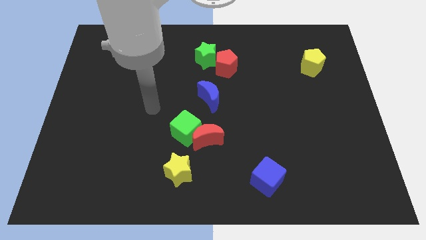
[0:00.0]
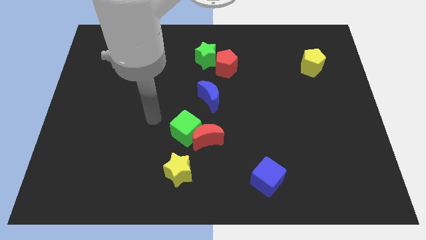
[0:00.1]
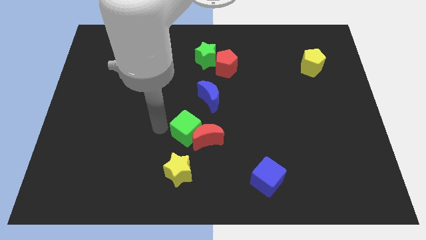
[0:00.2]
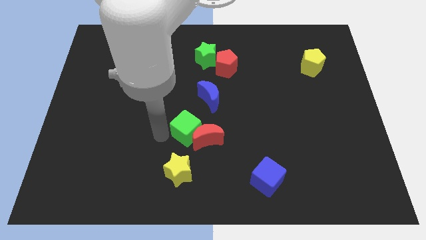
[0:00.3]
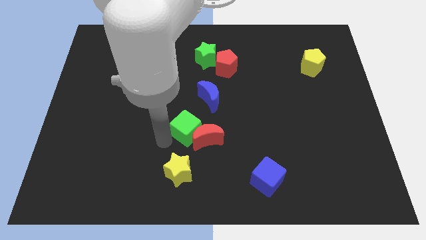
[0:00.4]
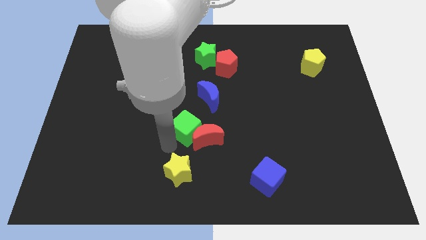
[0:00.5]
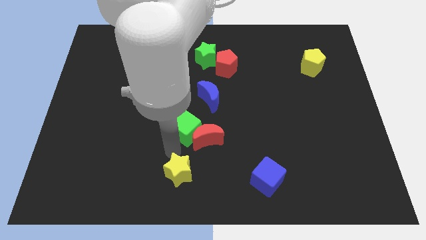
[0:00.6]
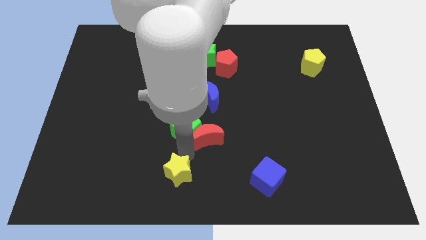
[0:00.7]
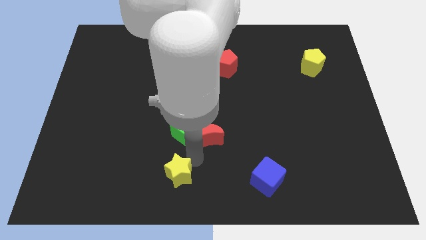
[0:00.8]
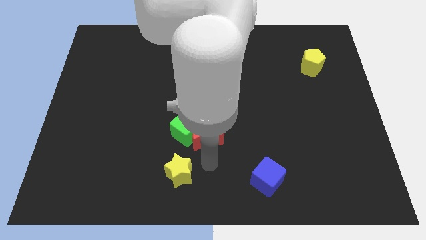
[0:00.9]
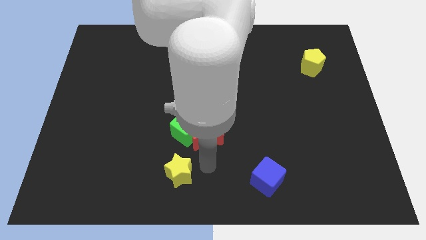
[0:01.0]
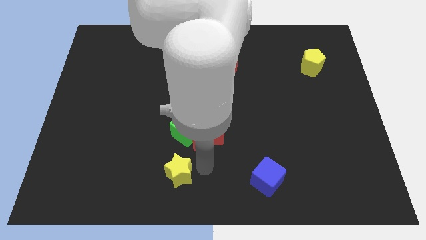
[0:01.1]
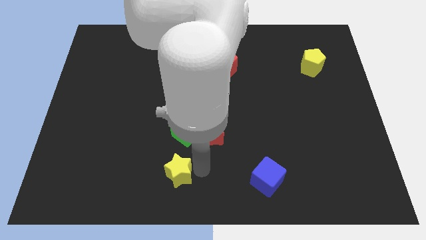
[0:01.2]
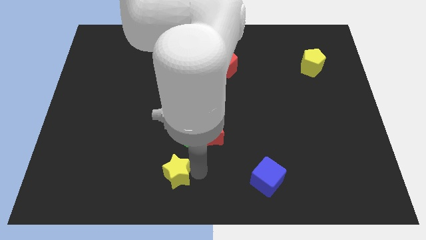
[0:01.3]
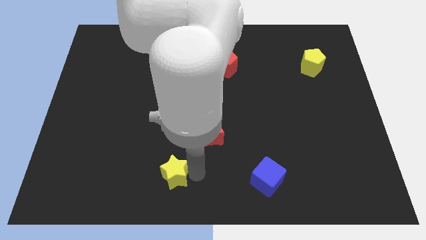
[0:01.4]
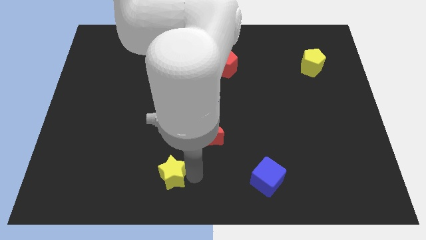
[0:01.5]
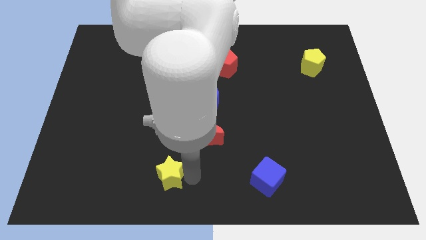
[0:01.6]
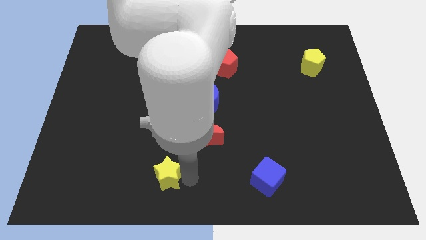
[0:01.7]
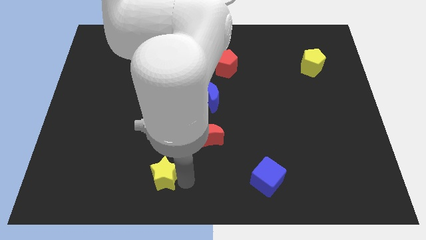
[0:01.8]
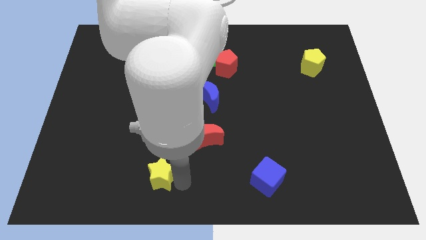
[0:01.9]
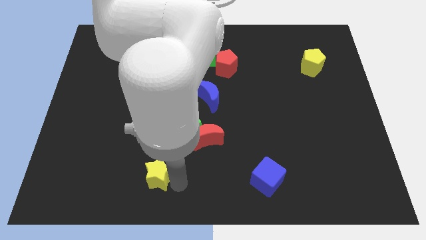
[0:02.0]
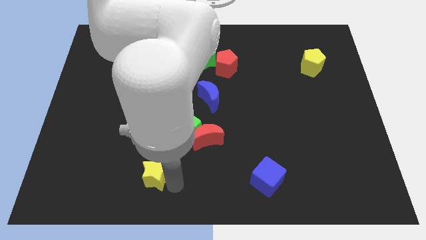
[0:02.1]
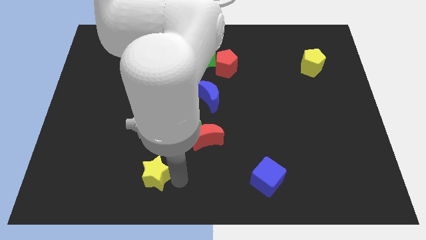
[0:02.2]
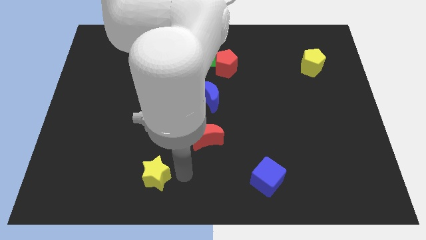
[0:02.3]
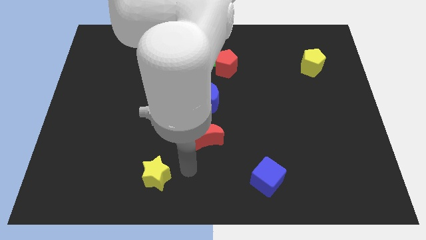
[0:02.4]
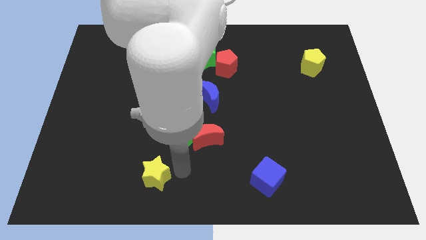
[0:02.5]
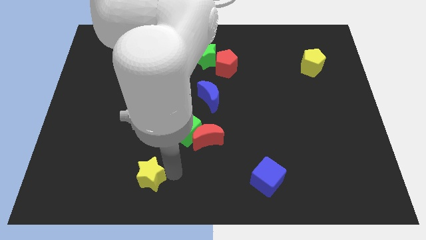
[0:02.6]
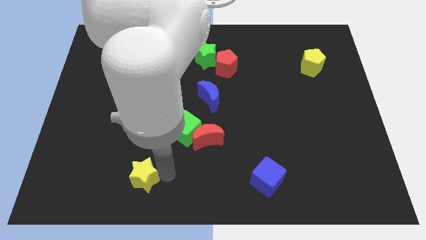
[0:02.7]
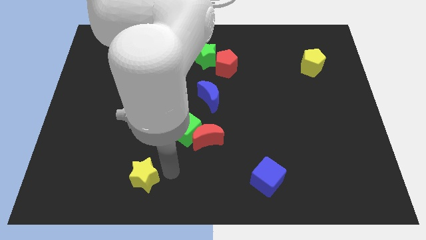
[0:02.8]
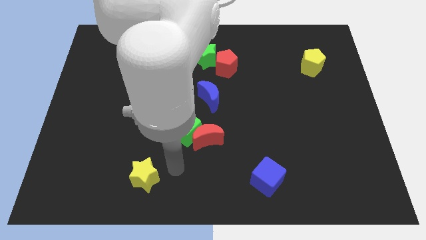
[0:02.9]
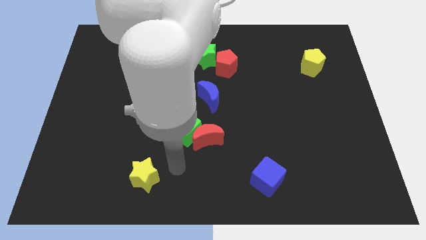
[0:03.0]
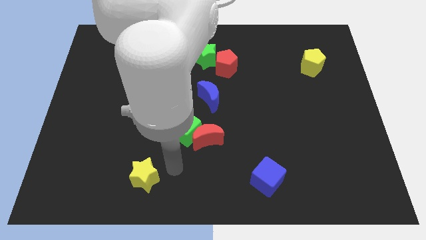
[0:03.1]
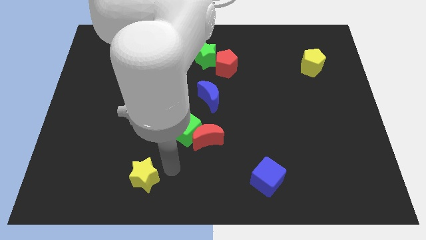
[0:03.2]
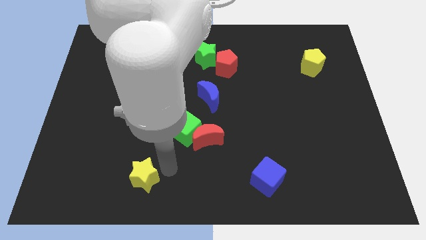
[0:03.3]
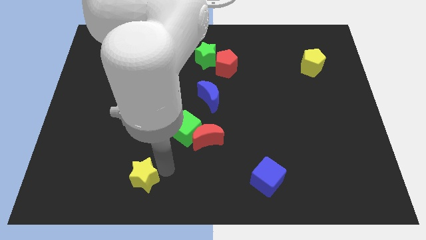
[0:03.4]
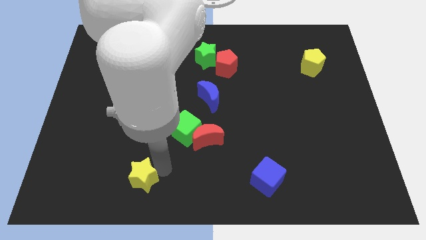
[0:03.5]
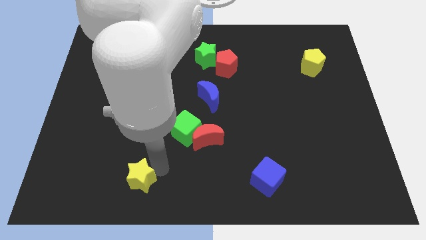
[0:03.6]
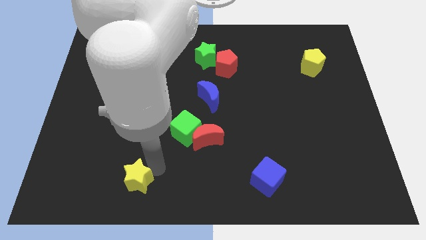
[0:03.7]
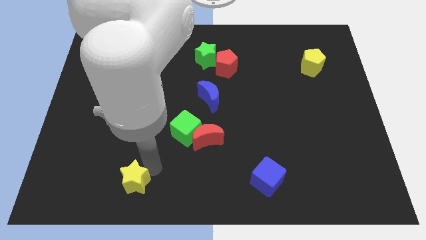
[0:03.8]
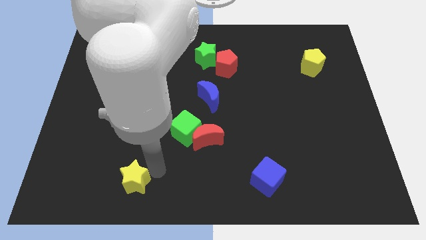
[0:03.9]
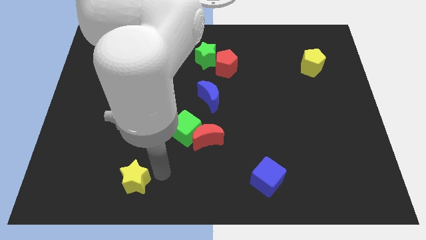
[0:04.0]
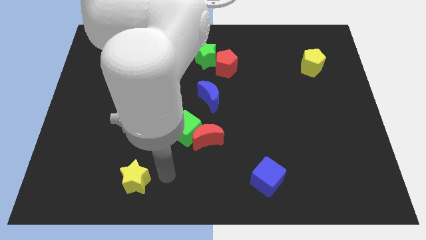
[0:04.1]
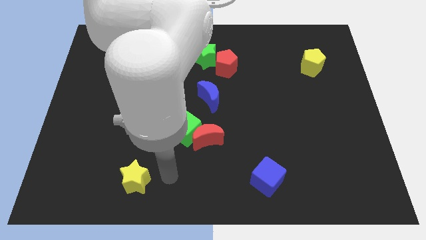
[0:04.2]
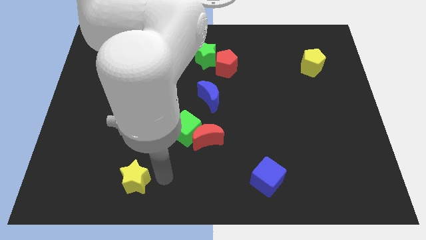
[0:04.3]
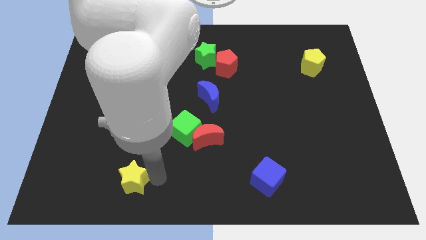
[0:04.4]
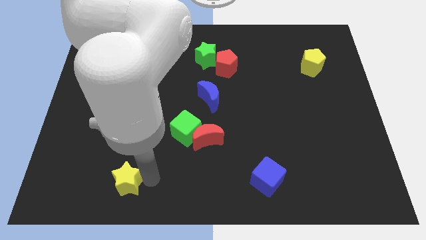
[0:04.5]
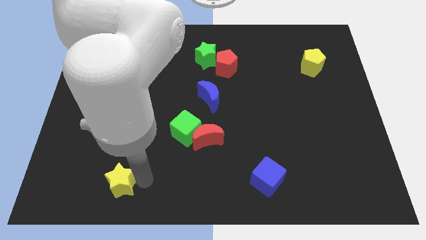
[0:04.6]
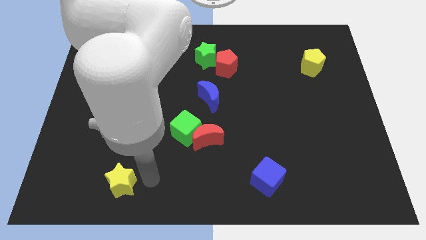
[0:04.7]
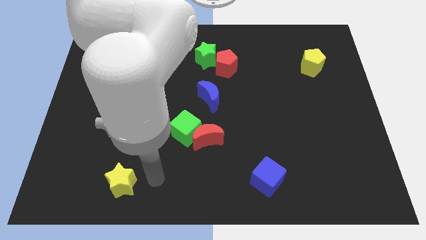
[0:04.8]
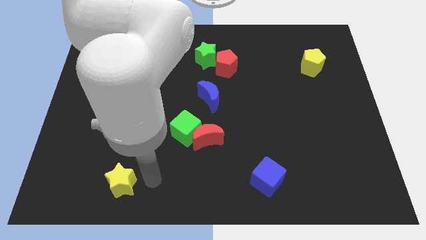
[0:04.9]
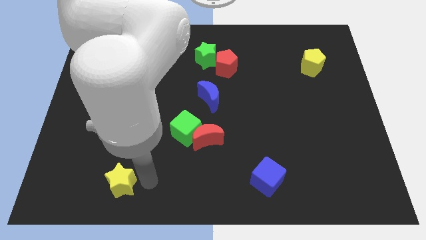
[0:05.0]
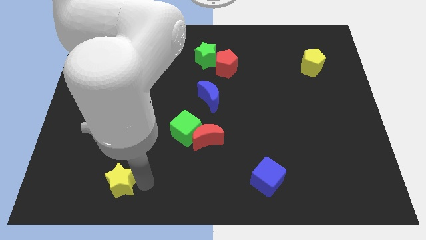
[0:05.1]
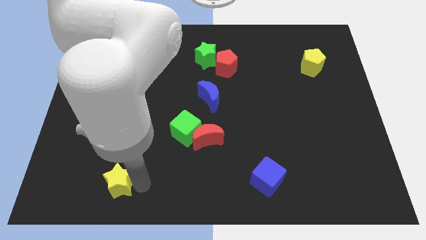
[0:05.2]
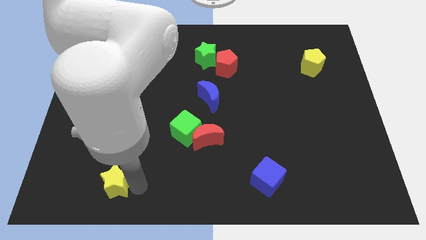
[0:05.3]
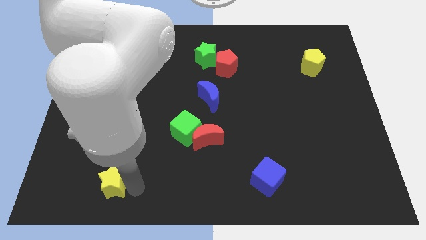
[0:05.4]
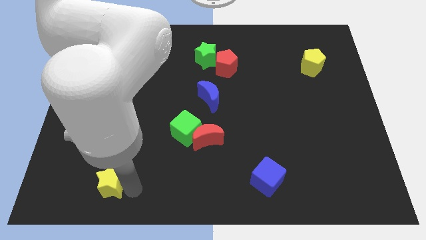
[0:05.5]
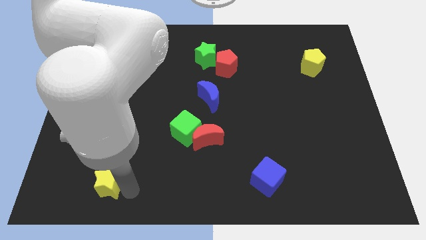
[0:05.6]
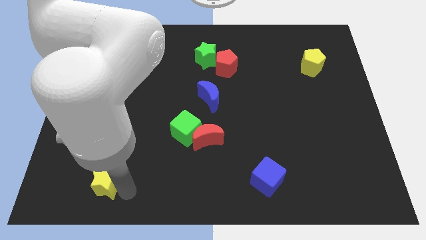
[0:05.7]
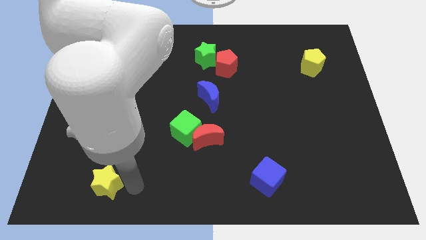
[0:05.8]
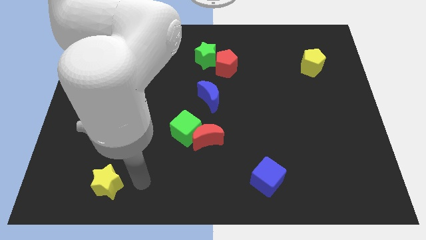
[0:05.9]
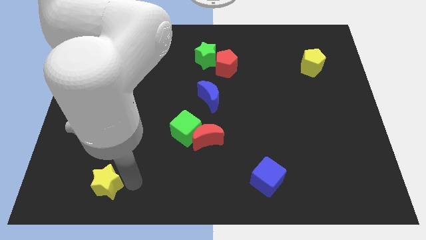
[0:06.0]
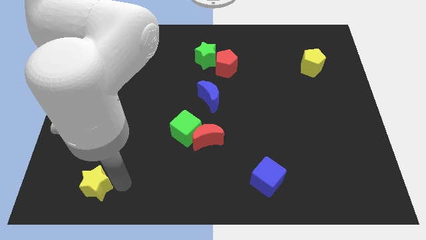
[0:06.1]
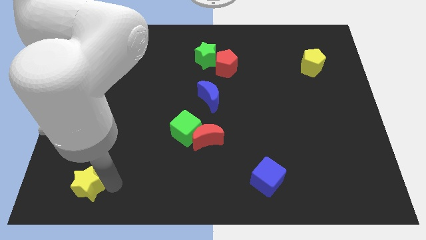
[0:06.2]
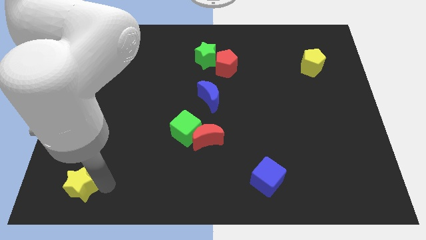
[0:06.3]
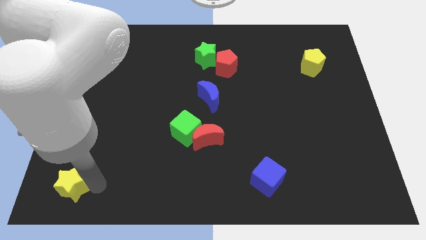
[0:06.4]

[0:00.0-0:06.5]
slide the yellow star to the bottom left

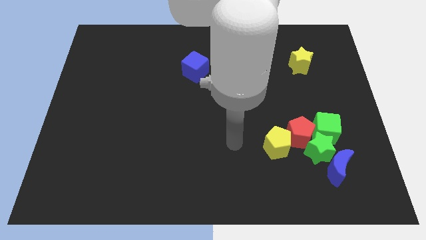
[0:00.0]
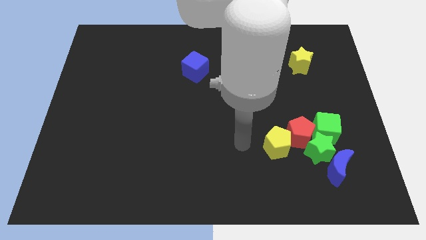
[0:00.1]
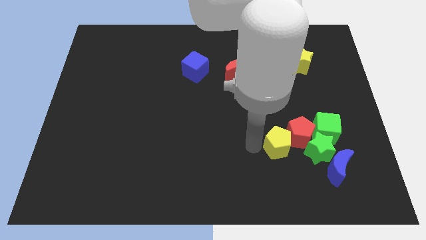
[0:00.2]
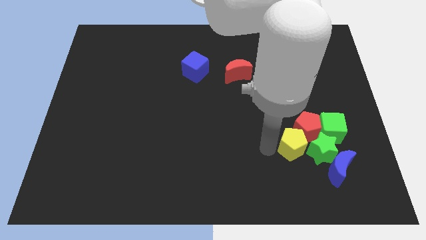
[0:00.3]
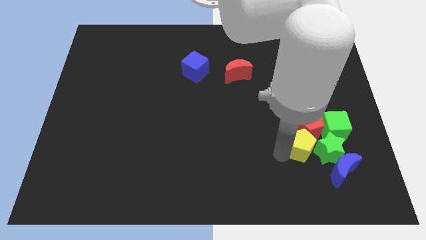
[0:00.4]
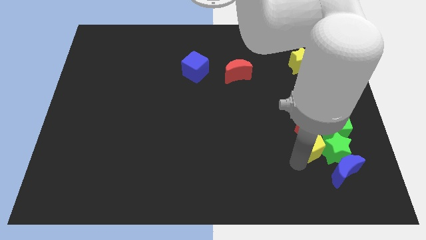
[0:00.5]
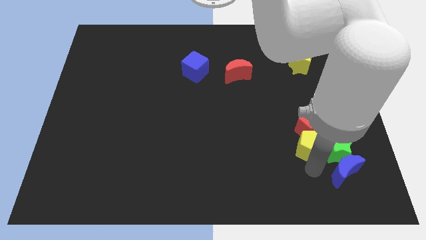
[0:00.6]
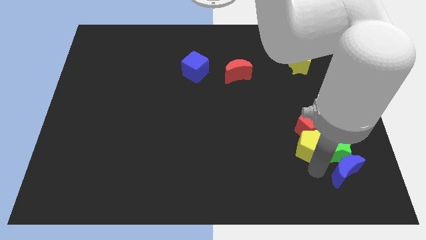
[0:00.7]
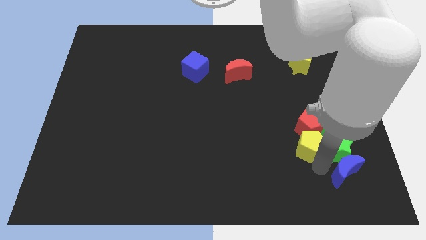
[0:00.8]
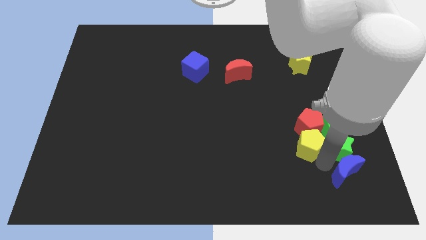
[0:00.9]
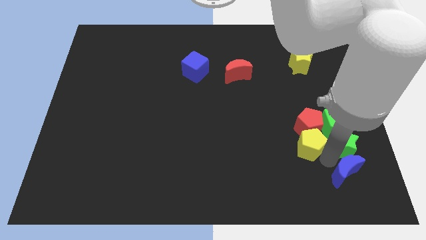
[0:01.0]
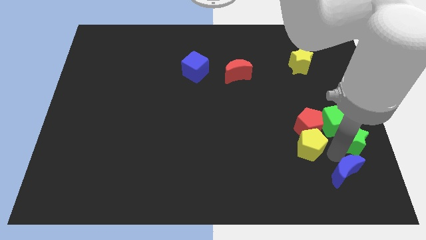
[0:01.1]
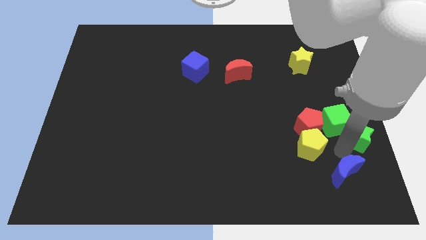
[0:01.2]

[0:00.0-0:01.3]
put the green star to the right side of the board

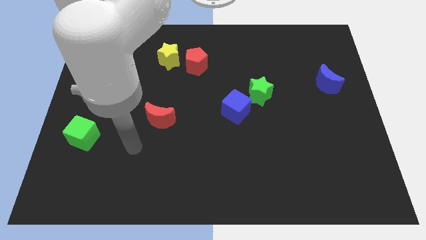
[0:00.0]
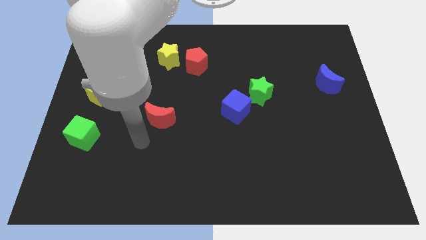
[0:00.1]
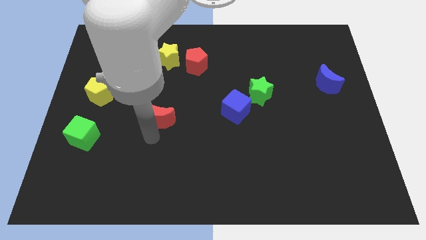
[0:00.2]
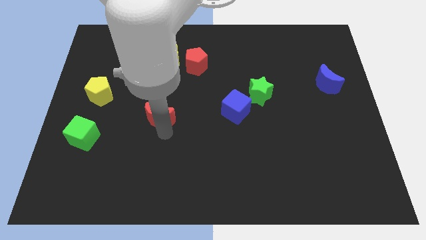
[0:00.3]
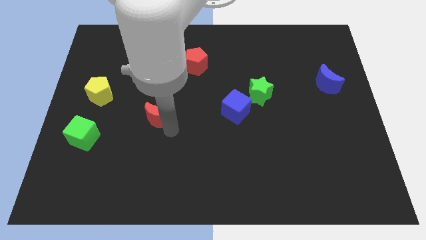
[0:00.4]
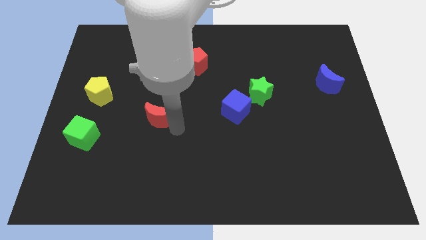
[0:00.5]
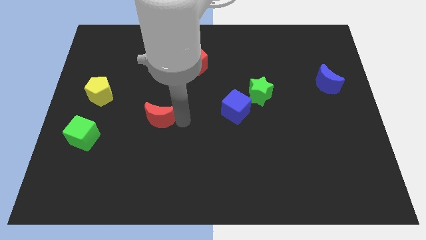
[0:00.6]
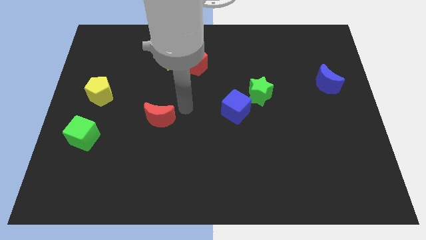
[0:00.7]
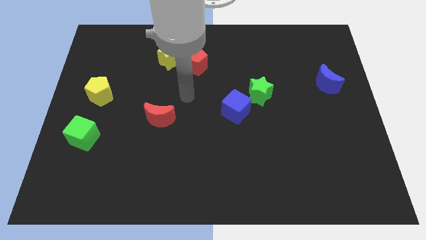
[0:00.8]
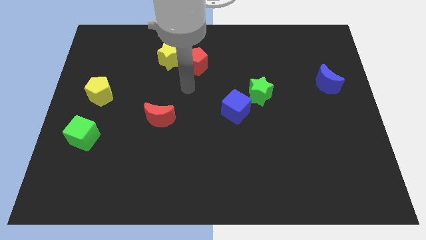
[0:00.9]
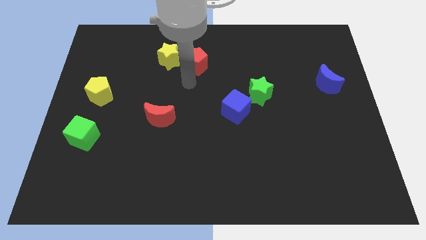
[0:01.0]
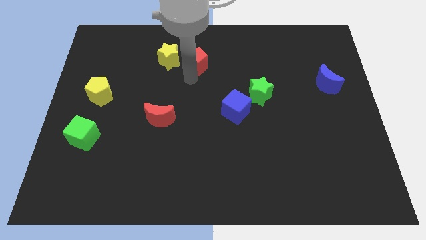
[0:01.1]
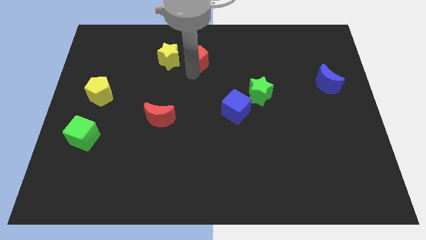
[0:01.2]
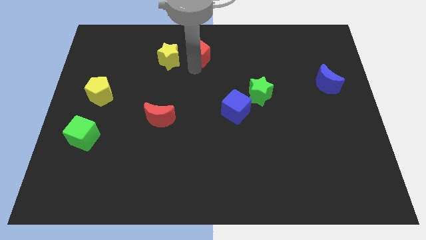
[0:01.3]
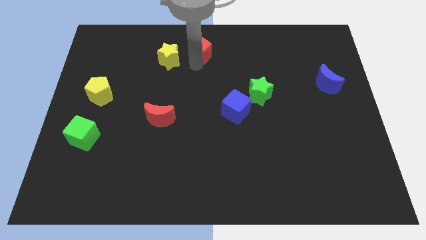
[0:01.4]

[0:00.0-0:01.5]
move the red pentagon to the top side
